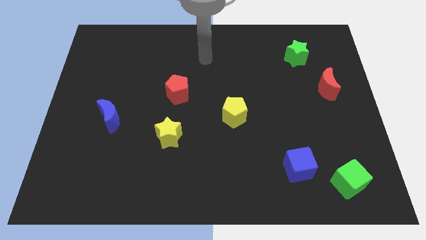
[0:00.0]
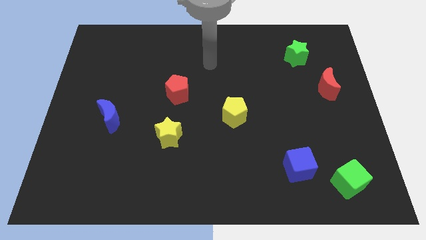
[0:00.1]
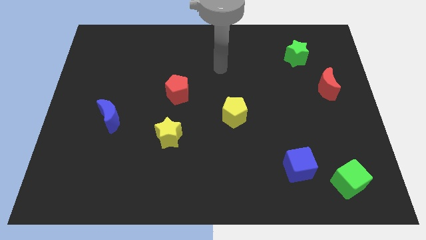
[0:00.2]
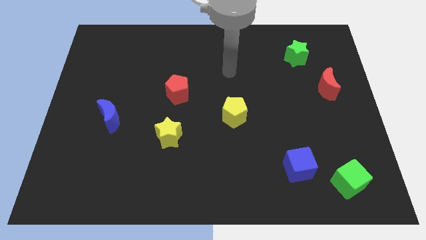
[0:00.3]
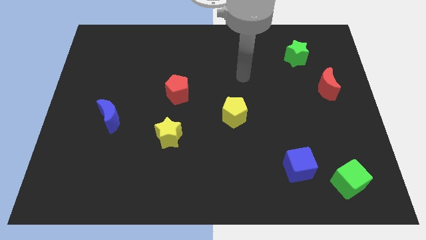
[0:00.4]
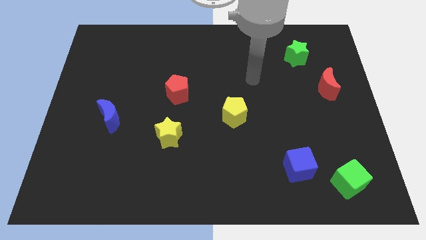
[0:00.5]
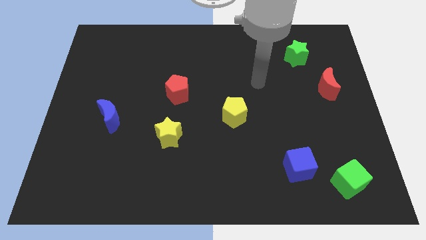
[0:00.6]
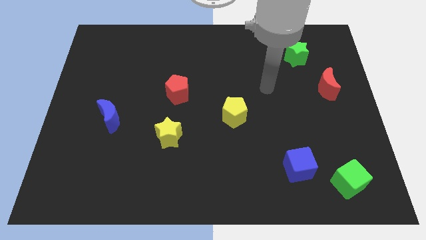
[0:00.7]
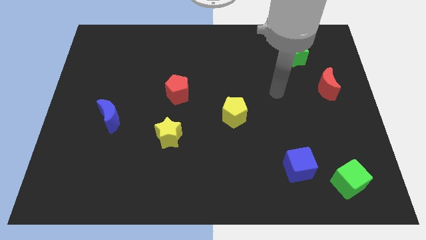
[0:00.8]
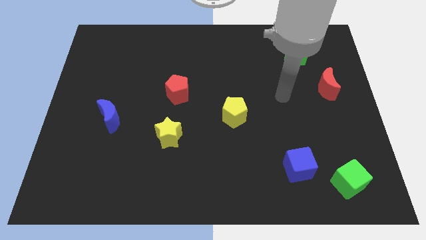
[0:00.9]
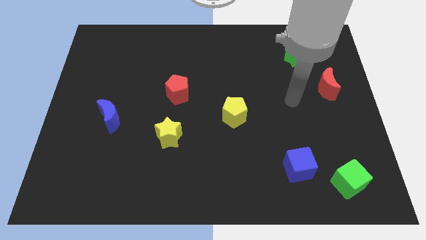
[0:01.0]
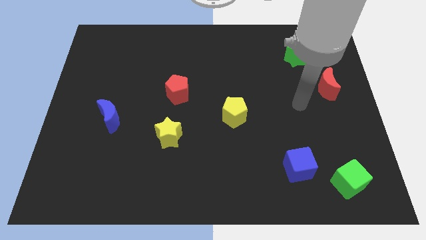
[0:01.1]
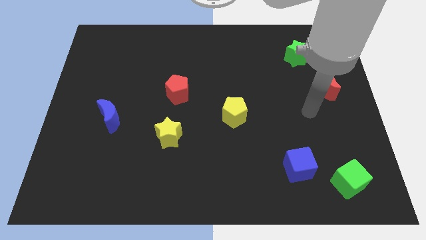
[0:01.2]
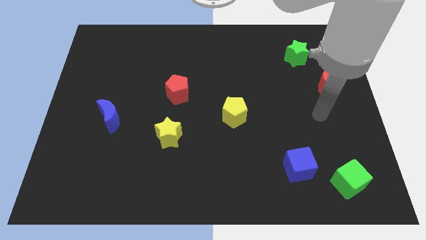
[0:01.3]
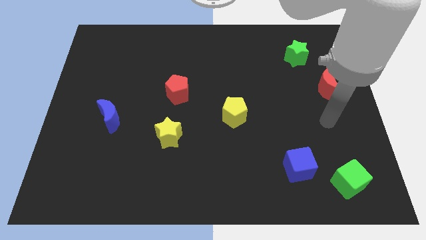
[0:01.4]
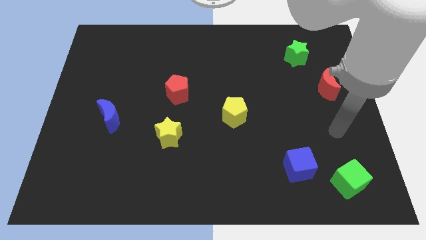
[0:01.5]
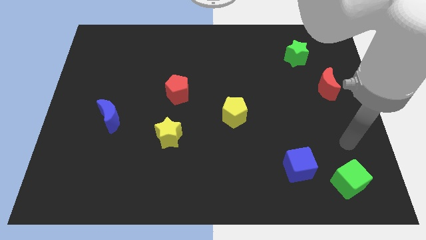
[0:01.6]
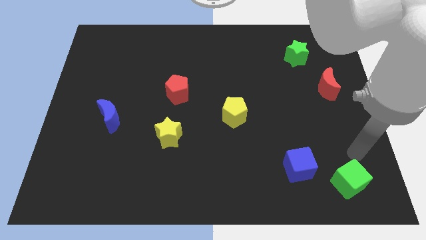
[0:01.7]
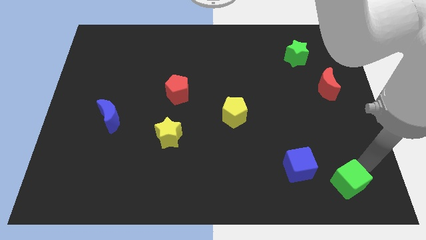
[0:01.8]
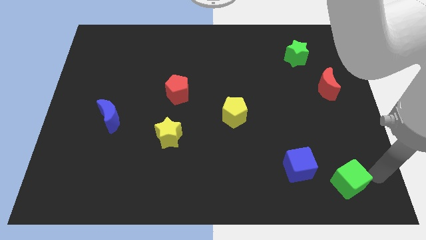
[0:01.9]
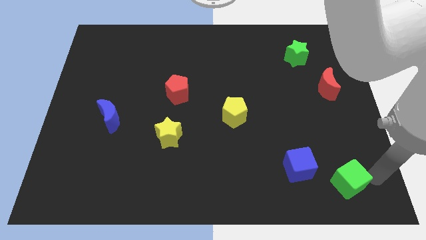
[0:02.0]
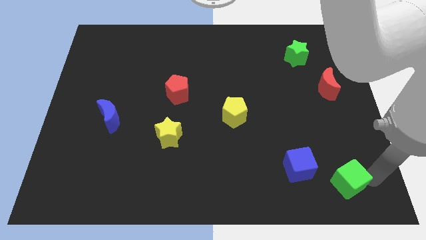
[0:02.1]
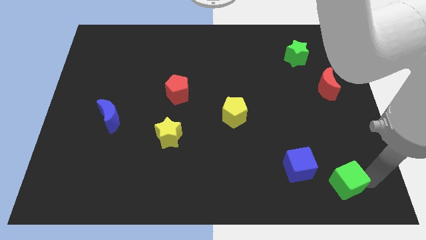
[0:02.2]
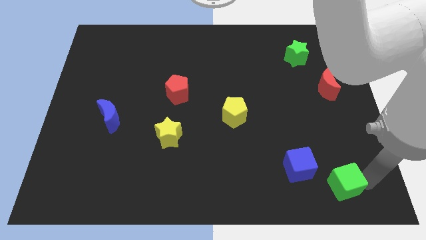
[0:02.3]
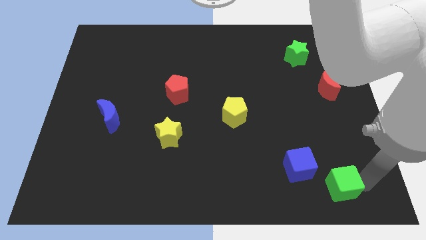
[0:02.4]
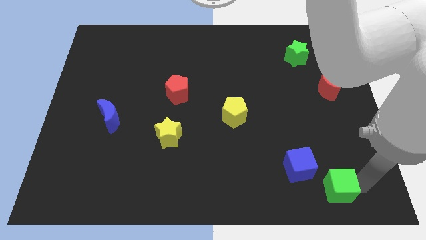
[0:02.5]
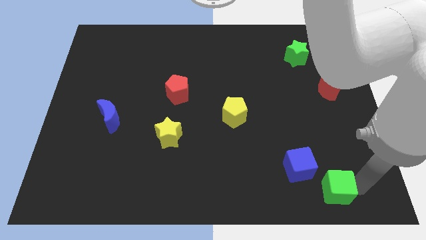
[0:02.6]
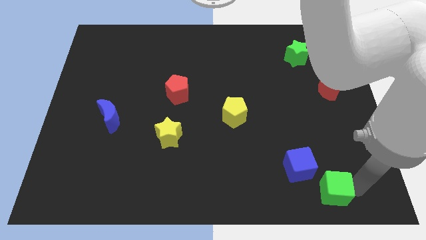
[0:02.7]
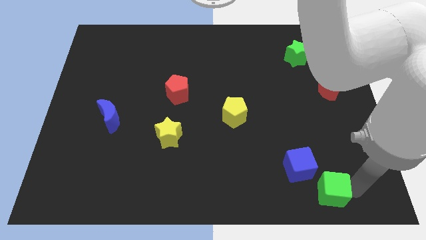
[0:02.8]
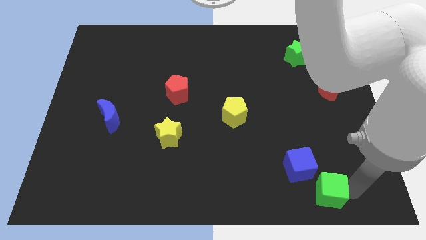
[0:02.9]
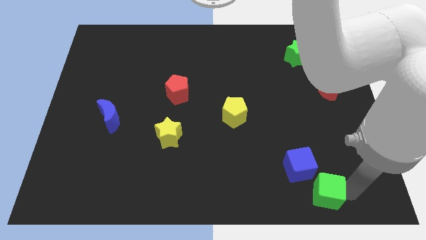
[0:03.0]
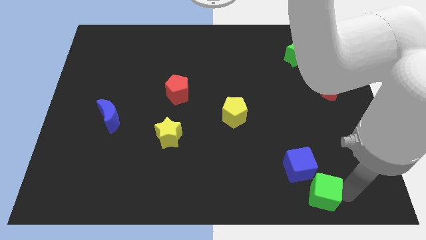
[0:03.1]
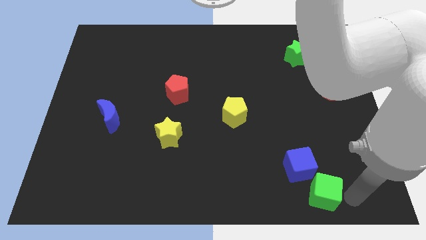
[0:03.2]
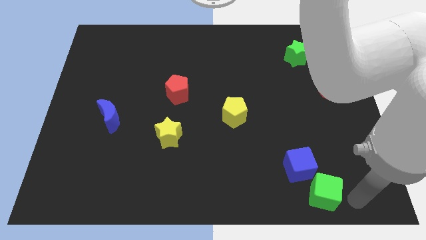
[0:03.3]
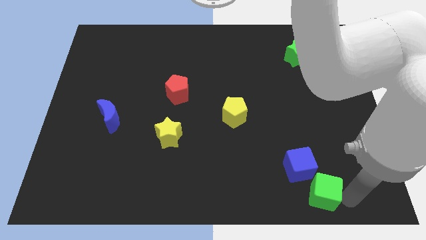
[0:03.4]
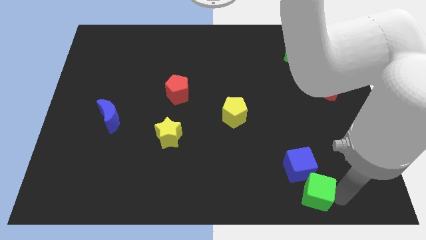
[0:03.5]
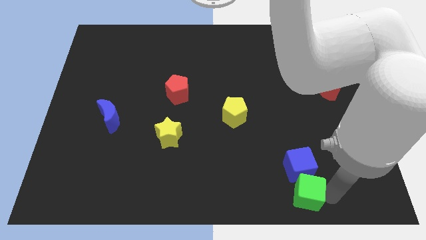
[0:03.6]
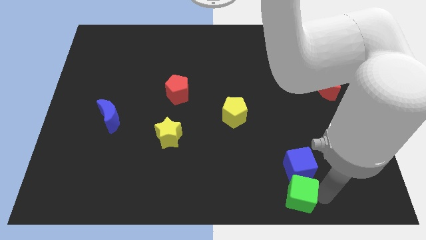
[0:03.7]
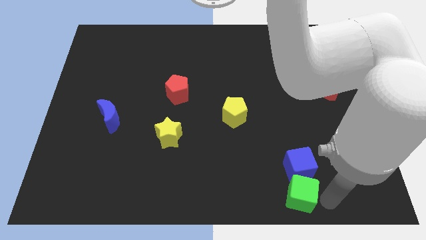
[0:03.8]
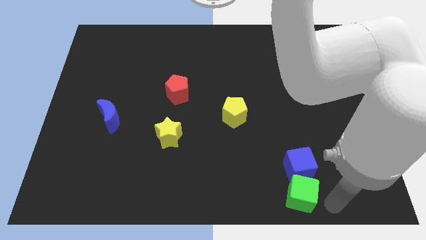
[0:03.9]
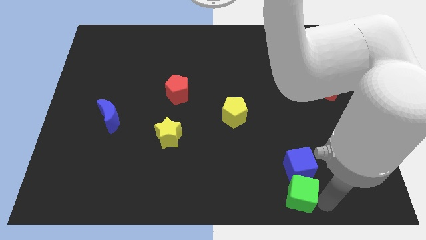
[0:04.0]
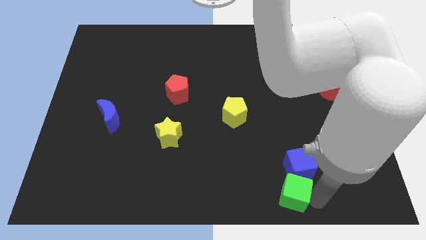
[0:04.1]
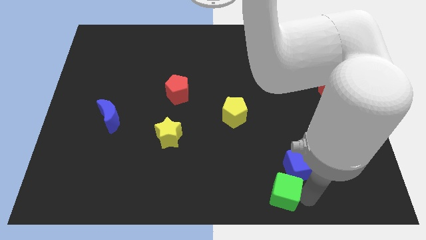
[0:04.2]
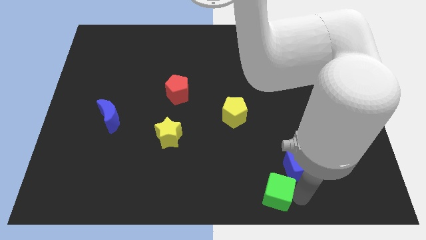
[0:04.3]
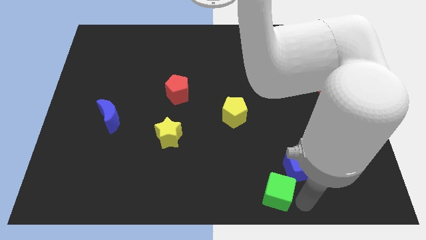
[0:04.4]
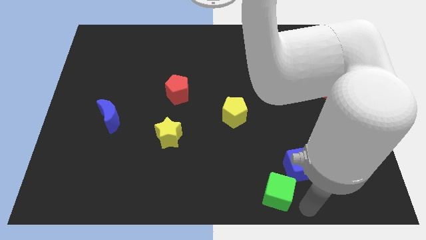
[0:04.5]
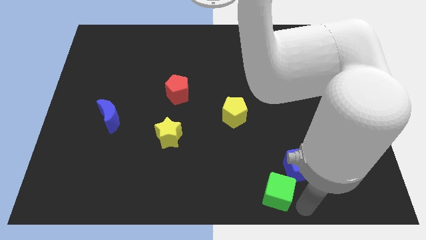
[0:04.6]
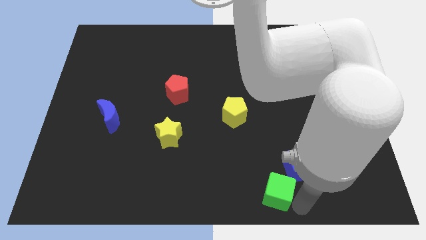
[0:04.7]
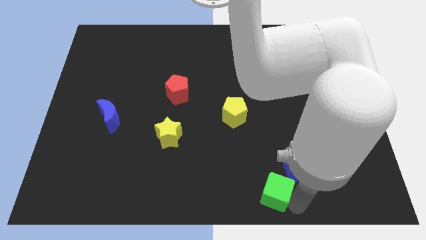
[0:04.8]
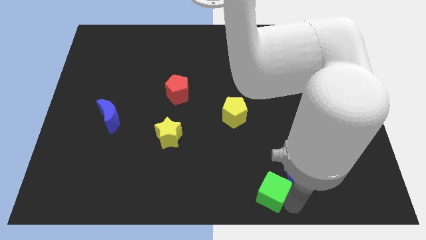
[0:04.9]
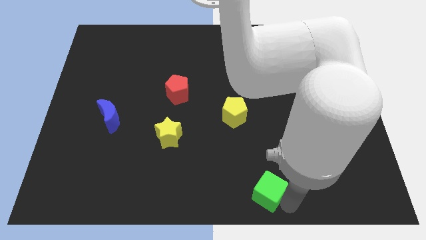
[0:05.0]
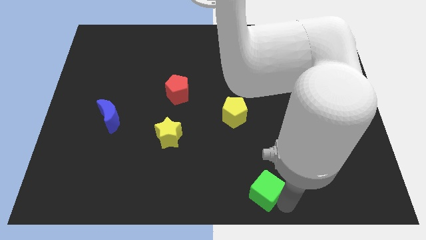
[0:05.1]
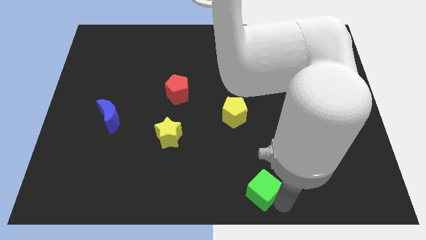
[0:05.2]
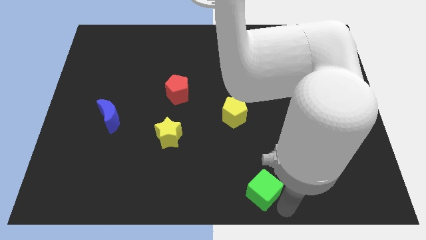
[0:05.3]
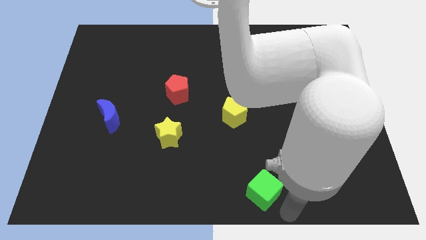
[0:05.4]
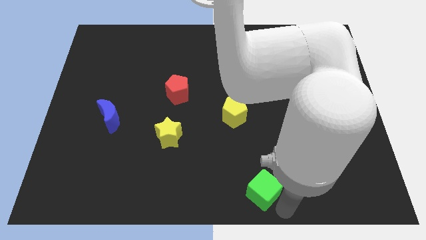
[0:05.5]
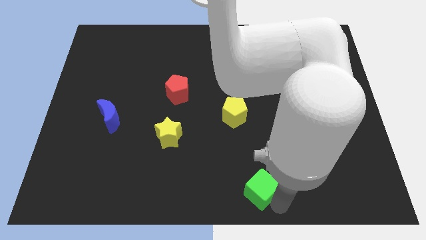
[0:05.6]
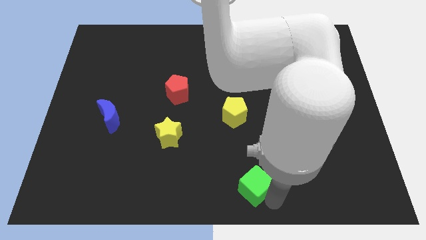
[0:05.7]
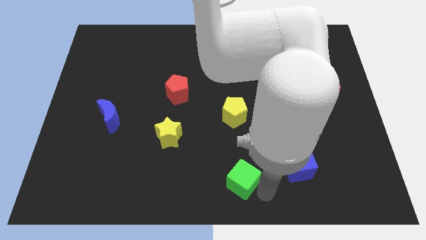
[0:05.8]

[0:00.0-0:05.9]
push the green cube to the left

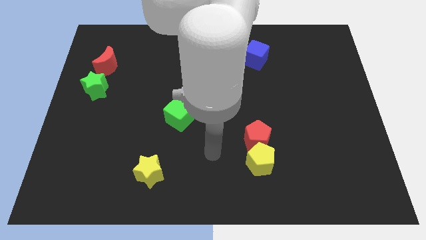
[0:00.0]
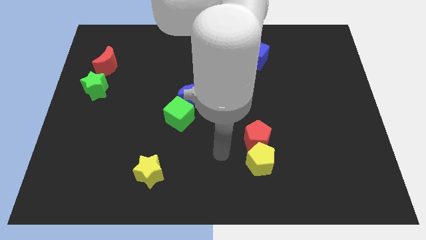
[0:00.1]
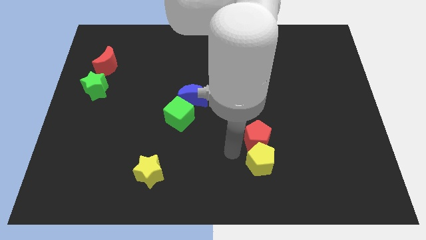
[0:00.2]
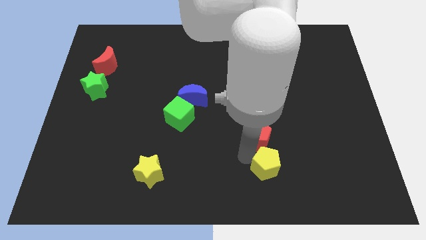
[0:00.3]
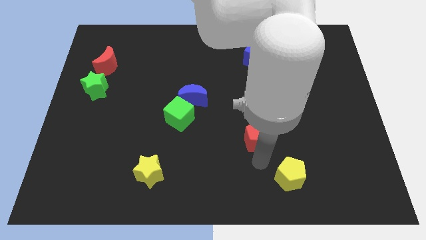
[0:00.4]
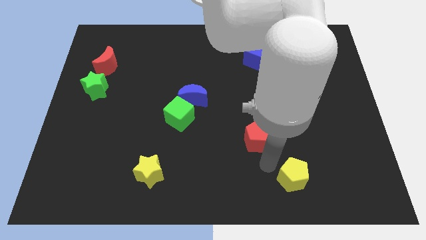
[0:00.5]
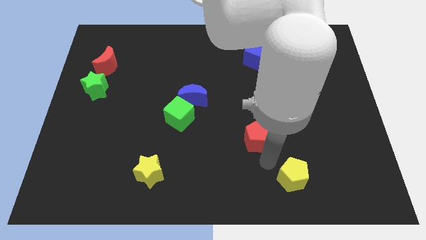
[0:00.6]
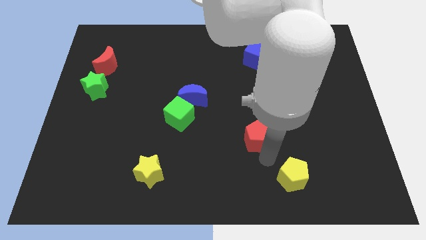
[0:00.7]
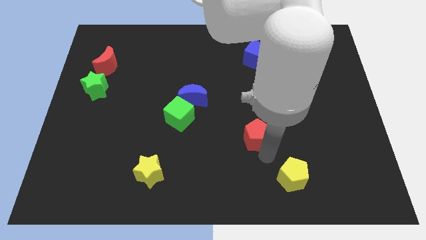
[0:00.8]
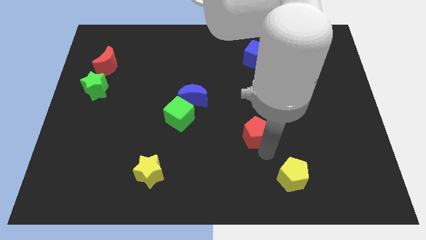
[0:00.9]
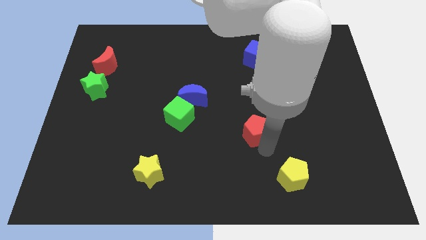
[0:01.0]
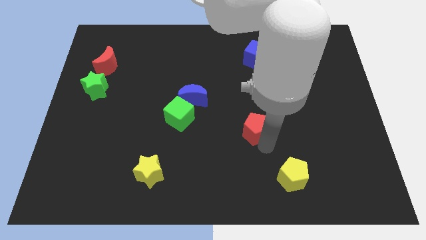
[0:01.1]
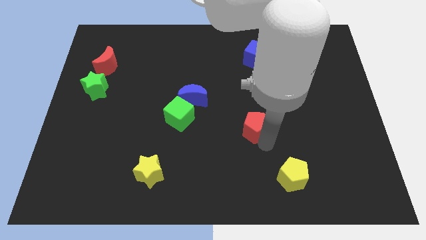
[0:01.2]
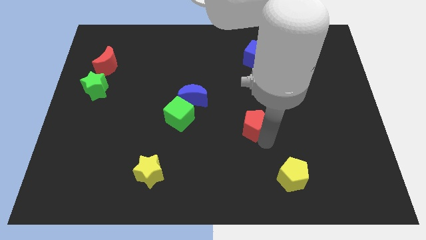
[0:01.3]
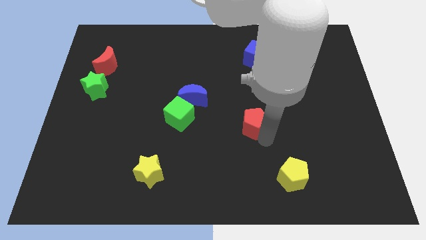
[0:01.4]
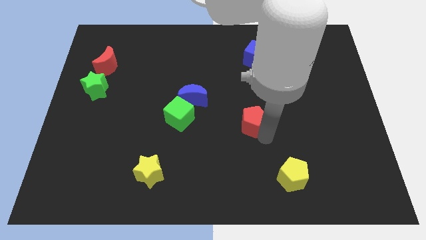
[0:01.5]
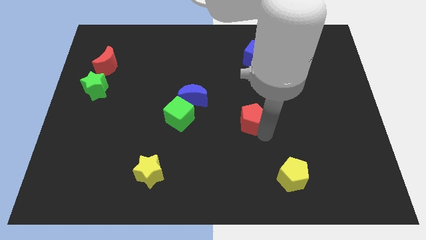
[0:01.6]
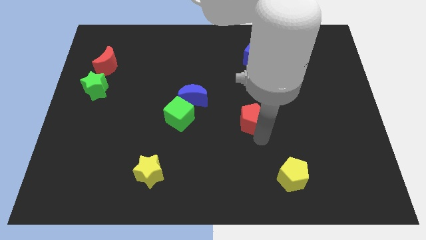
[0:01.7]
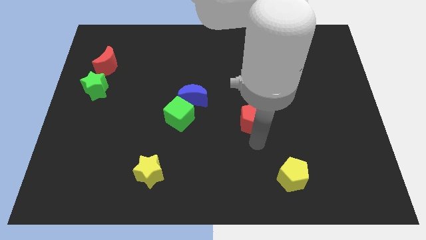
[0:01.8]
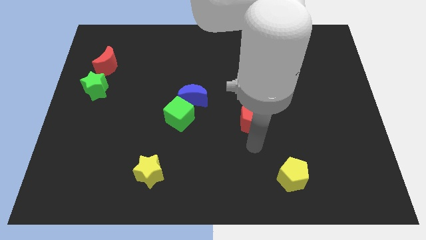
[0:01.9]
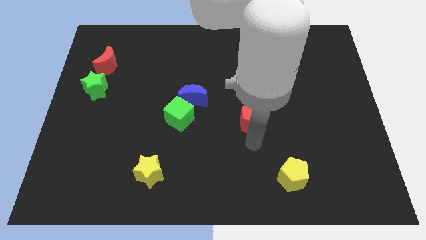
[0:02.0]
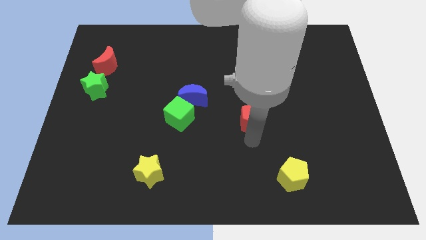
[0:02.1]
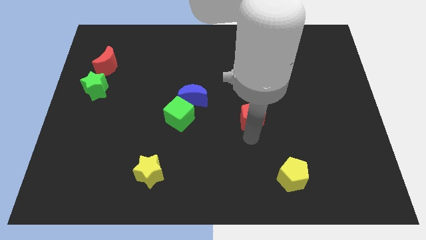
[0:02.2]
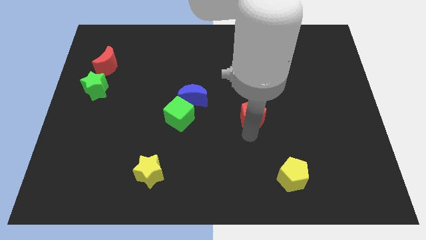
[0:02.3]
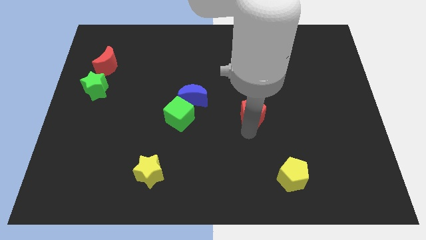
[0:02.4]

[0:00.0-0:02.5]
move the red pentagon a bit up
